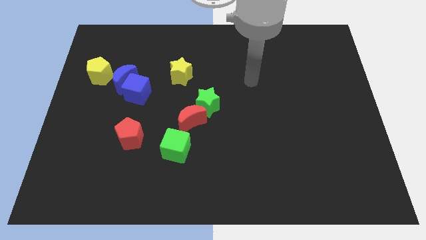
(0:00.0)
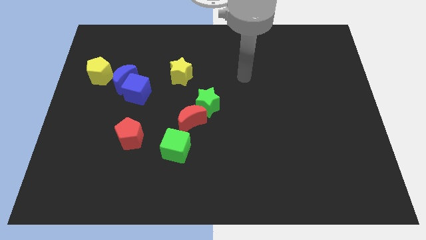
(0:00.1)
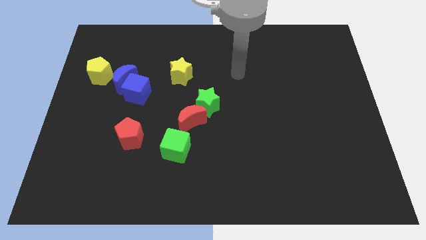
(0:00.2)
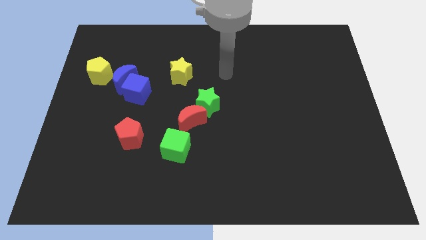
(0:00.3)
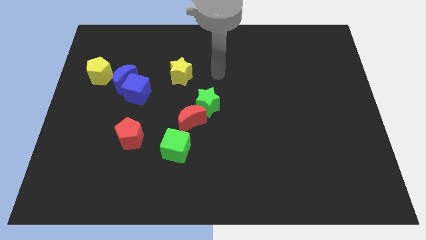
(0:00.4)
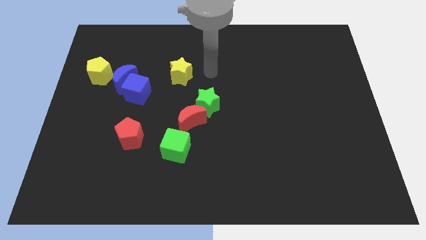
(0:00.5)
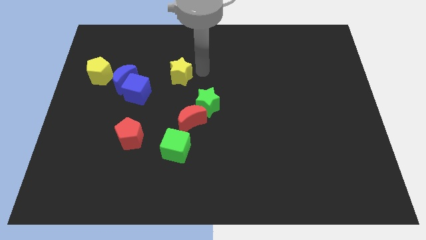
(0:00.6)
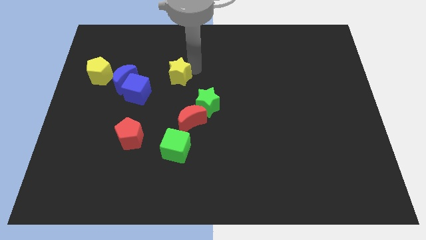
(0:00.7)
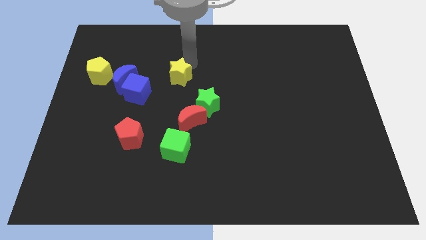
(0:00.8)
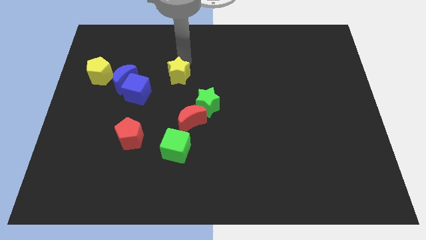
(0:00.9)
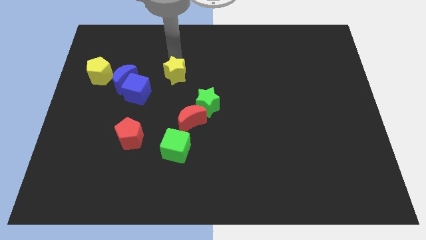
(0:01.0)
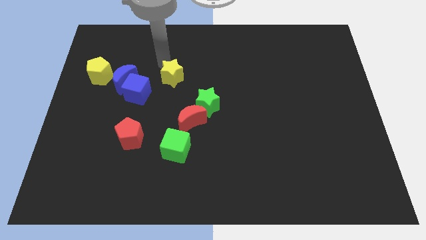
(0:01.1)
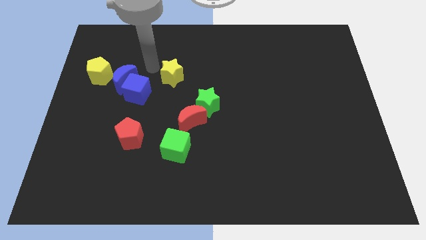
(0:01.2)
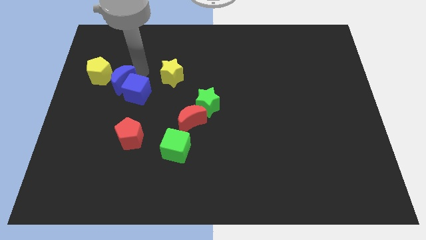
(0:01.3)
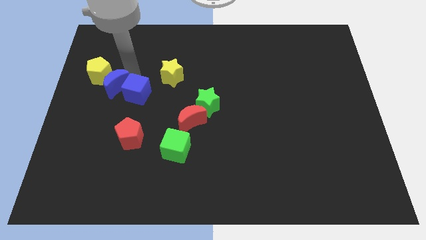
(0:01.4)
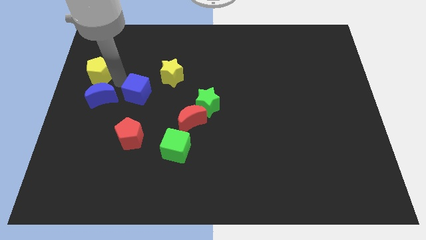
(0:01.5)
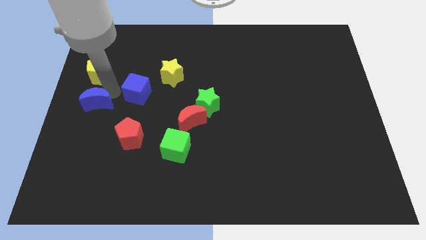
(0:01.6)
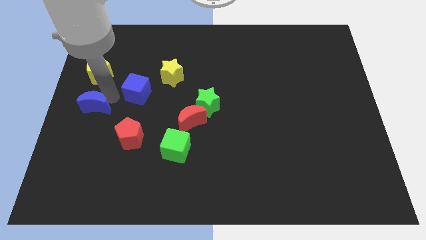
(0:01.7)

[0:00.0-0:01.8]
pull the blue cube apart from the blue moon

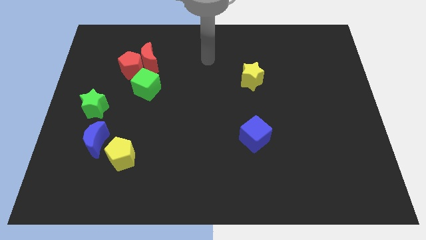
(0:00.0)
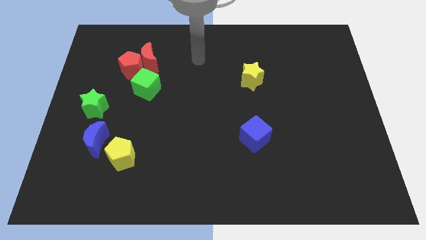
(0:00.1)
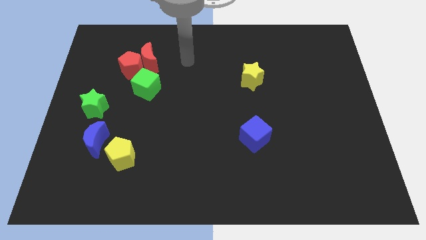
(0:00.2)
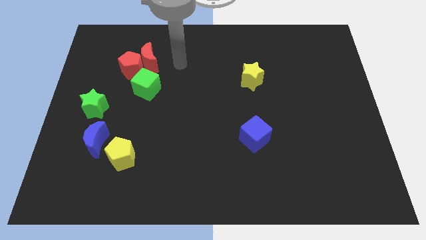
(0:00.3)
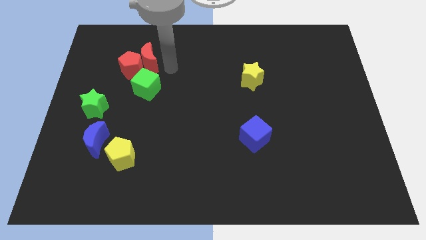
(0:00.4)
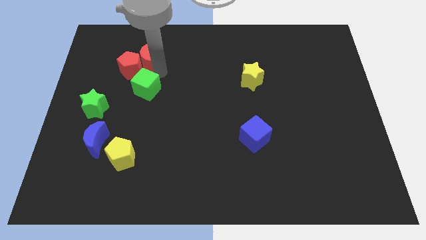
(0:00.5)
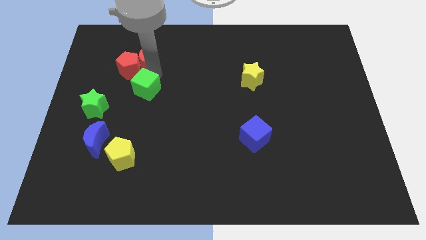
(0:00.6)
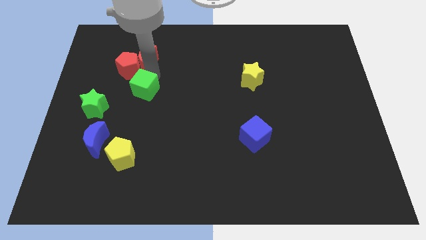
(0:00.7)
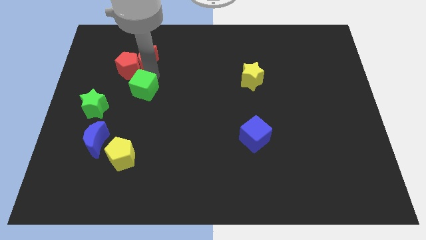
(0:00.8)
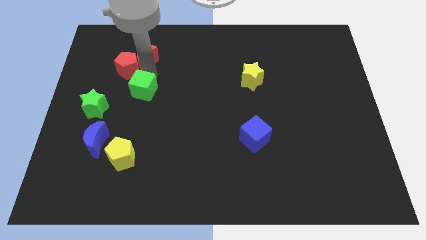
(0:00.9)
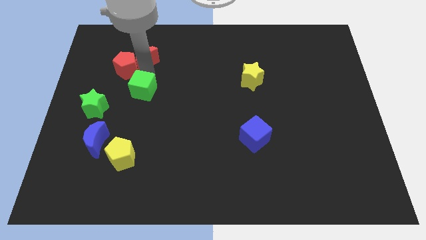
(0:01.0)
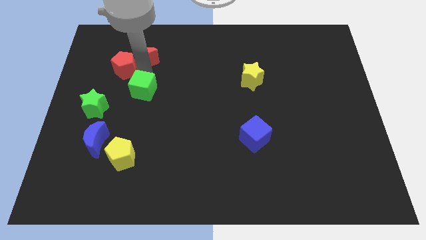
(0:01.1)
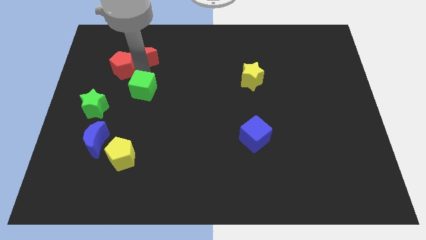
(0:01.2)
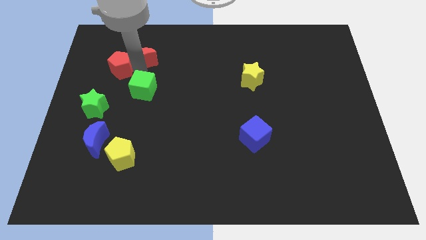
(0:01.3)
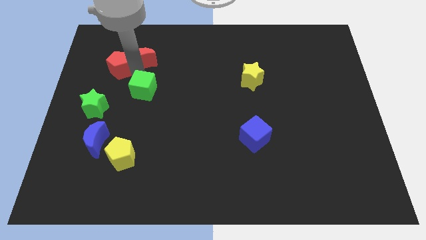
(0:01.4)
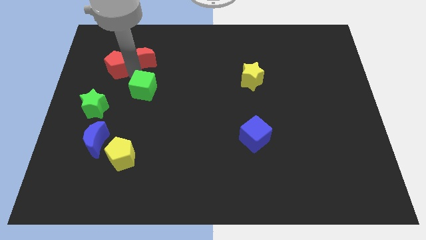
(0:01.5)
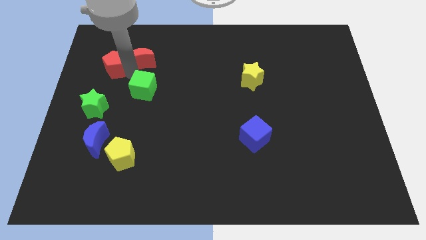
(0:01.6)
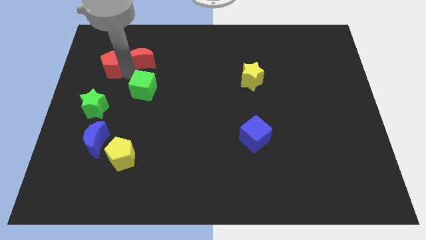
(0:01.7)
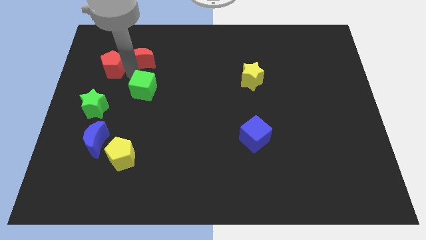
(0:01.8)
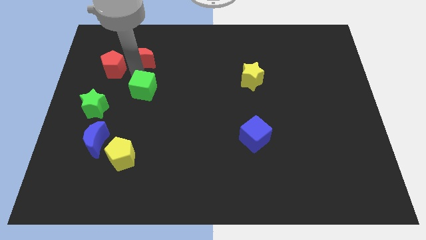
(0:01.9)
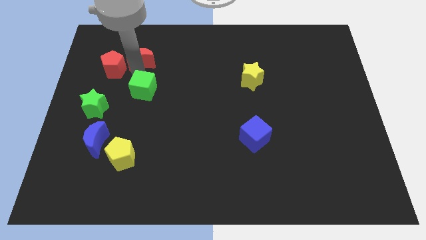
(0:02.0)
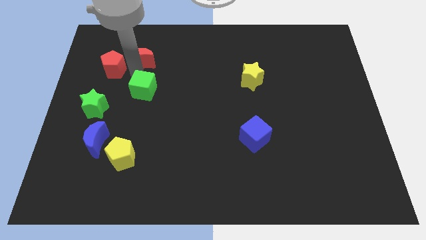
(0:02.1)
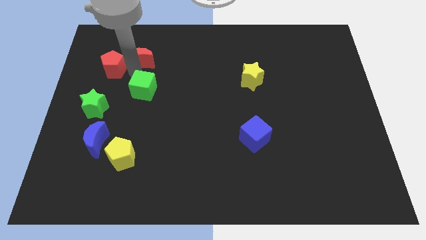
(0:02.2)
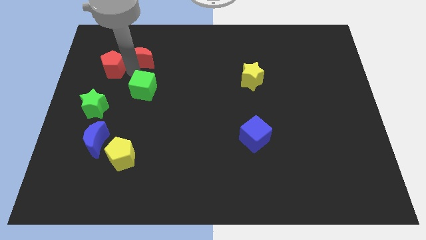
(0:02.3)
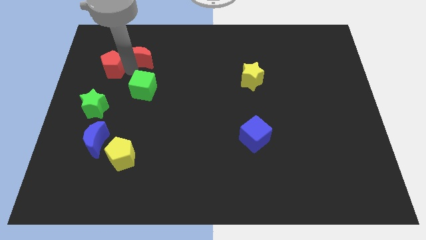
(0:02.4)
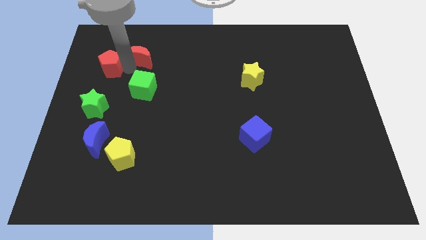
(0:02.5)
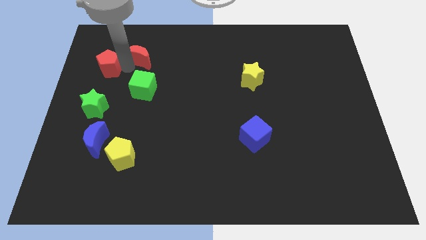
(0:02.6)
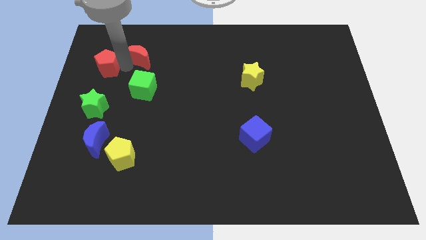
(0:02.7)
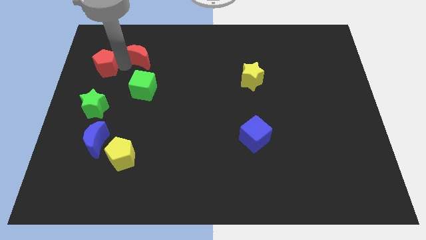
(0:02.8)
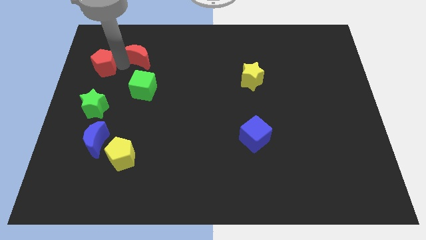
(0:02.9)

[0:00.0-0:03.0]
separate the red pentagon from the red moon and green cube

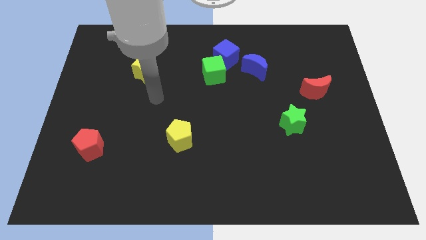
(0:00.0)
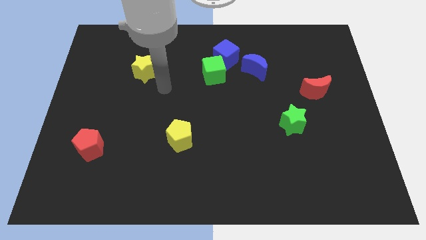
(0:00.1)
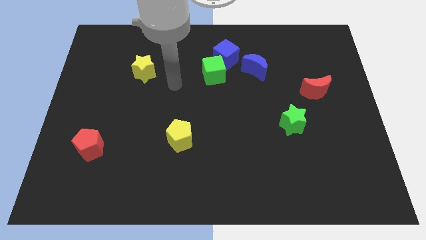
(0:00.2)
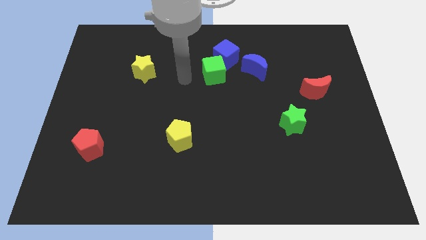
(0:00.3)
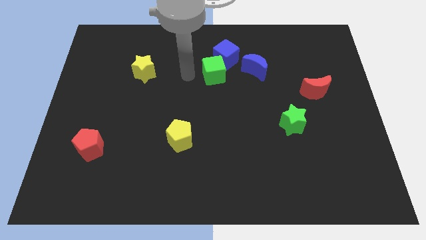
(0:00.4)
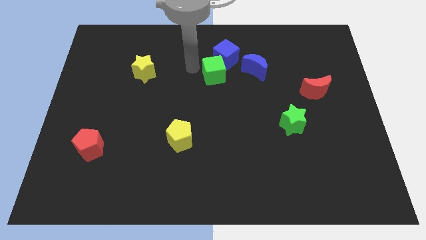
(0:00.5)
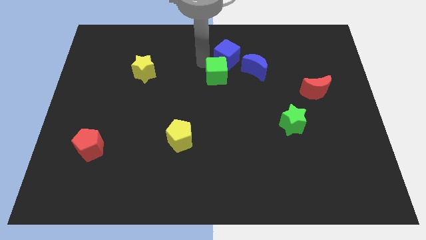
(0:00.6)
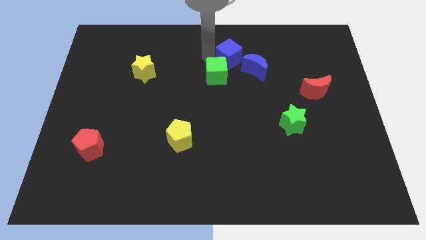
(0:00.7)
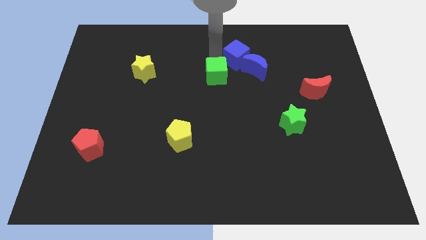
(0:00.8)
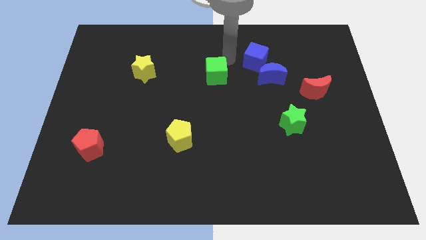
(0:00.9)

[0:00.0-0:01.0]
separate the green cube from the blue cube

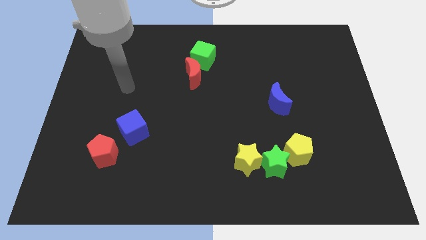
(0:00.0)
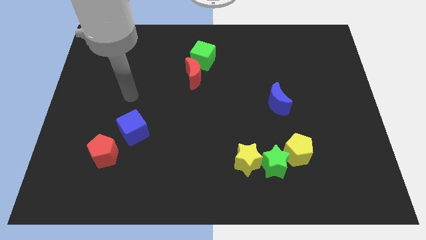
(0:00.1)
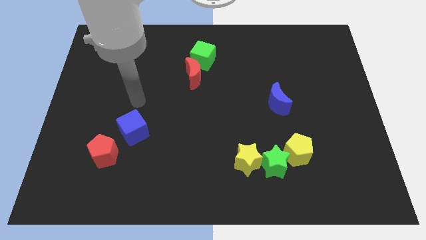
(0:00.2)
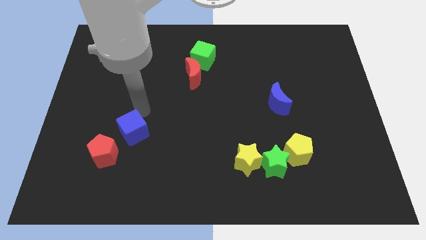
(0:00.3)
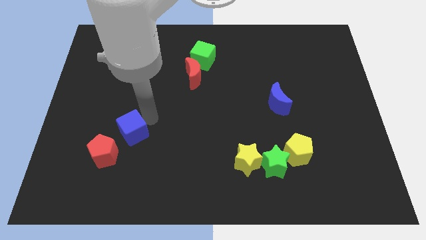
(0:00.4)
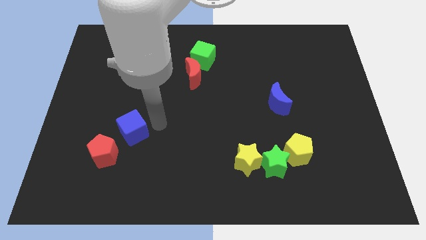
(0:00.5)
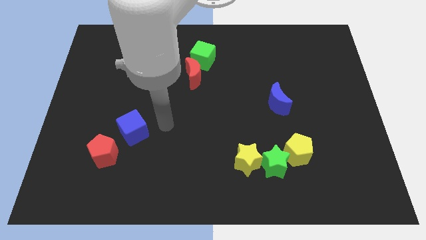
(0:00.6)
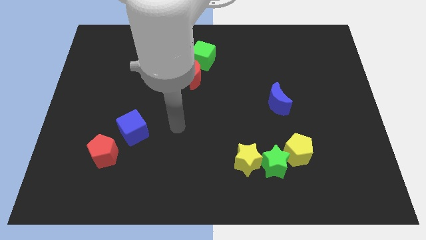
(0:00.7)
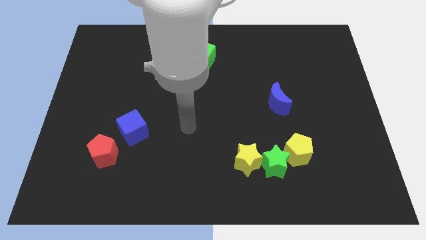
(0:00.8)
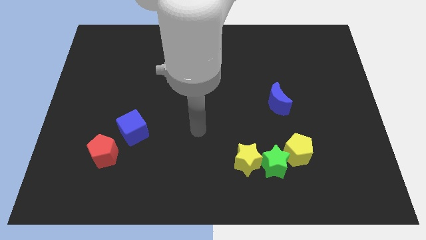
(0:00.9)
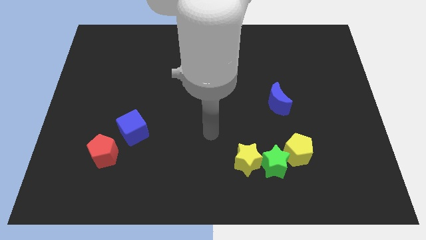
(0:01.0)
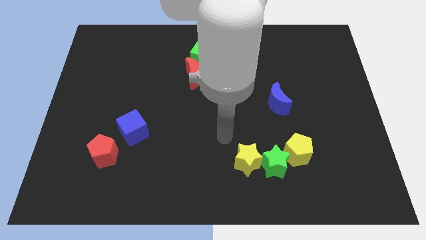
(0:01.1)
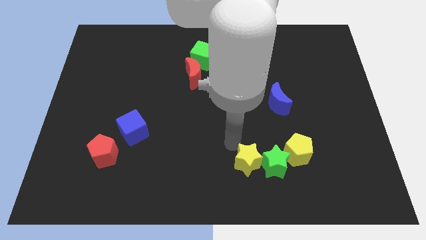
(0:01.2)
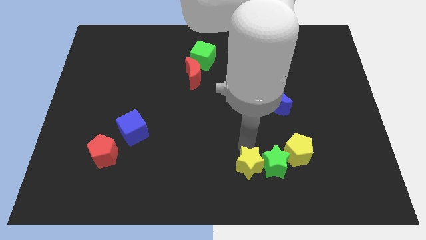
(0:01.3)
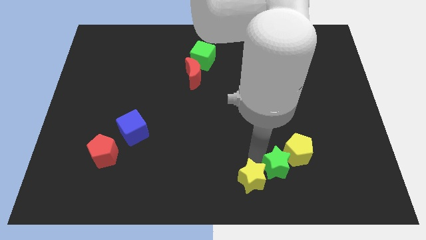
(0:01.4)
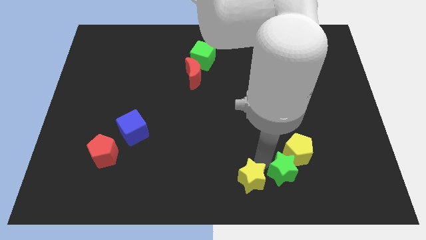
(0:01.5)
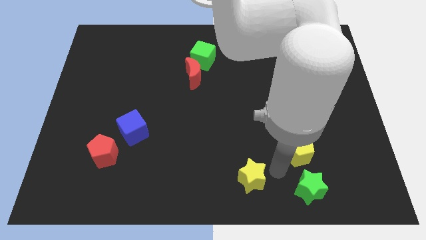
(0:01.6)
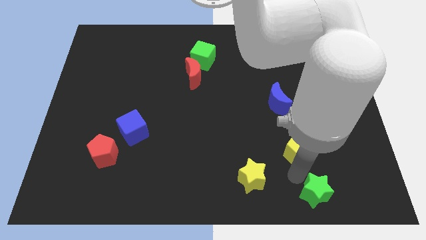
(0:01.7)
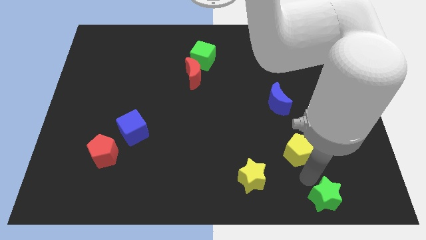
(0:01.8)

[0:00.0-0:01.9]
move the yellow pentagon away from the green star

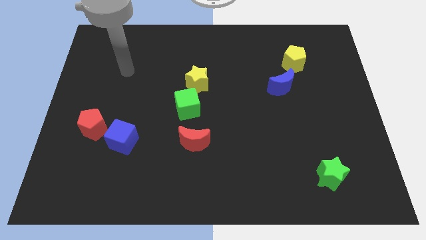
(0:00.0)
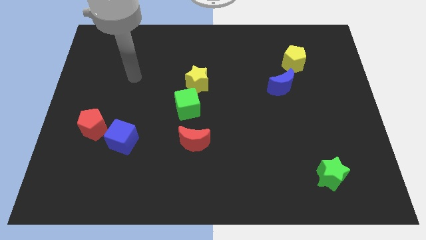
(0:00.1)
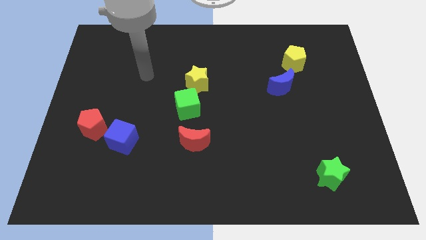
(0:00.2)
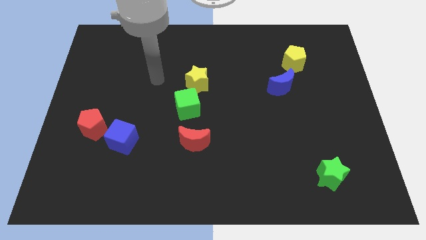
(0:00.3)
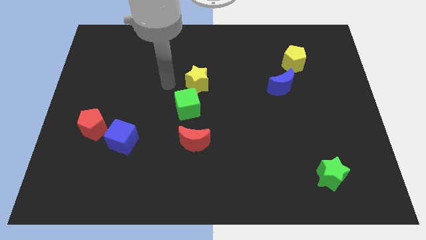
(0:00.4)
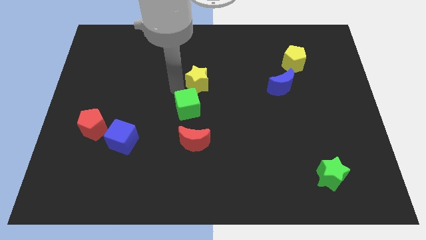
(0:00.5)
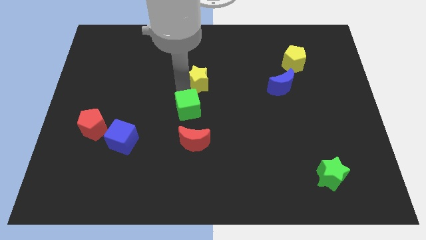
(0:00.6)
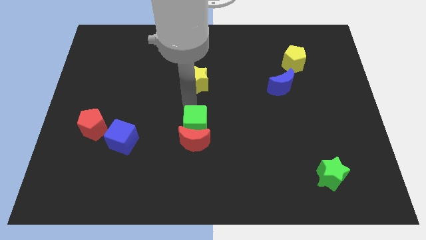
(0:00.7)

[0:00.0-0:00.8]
separate the yellow star from the green cube

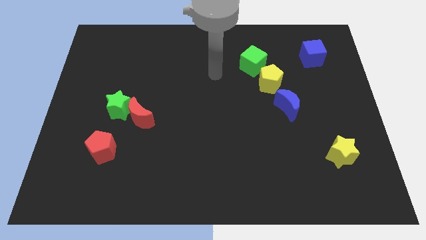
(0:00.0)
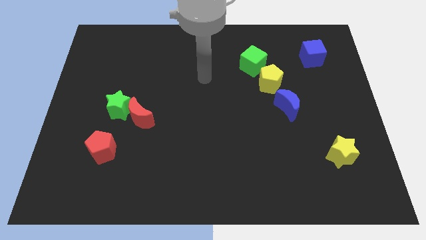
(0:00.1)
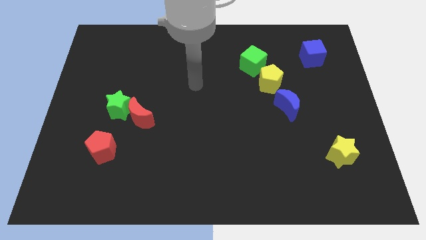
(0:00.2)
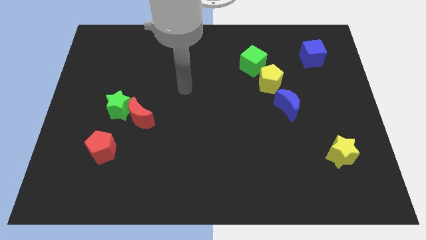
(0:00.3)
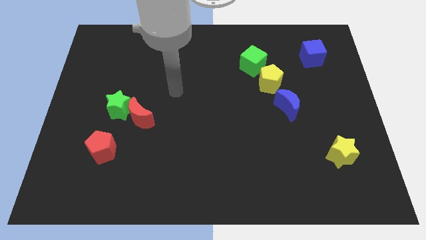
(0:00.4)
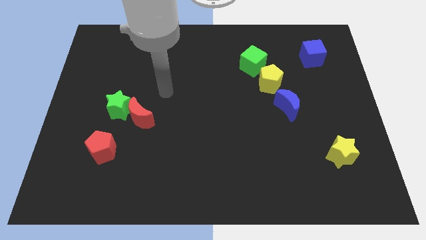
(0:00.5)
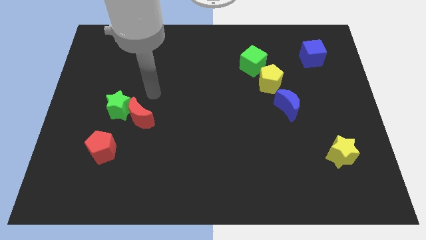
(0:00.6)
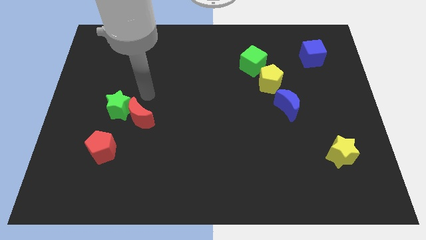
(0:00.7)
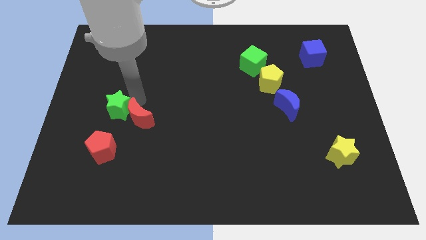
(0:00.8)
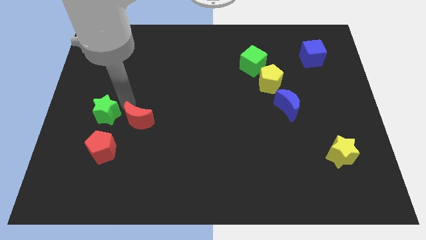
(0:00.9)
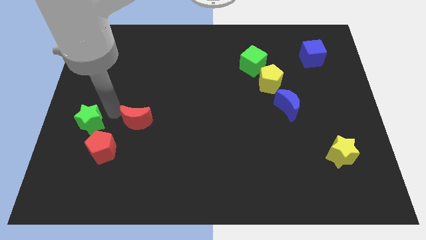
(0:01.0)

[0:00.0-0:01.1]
separate the red moon from the green star
